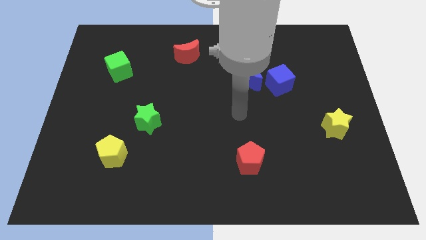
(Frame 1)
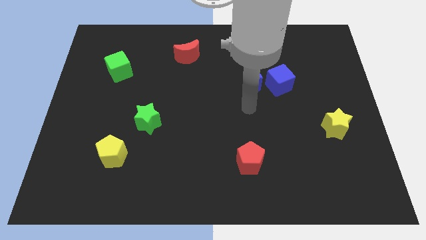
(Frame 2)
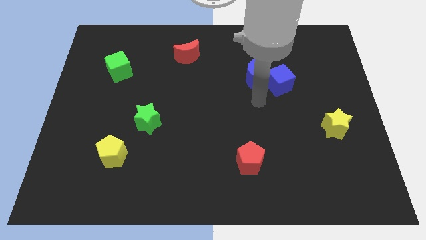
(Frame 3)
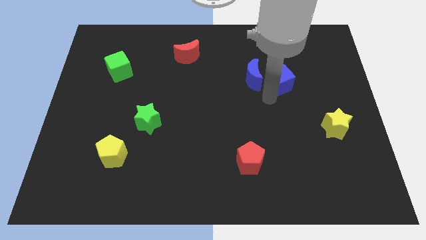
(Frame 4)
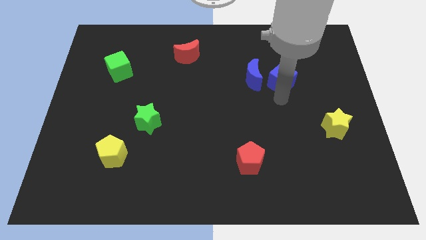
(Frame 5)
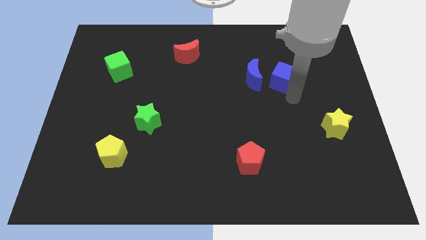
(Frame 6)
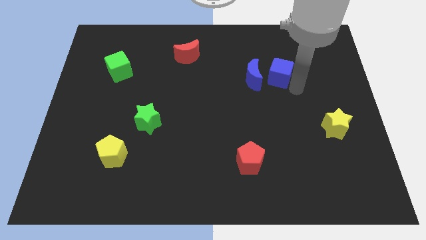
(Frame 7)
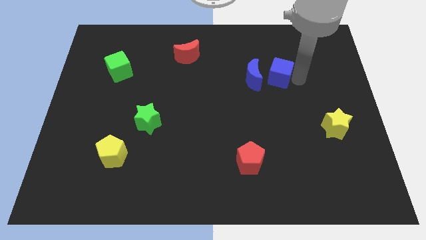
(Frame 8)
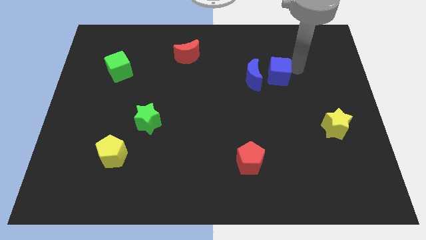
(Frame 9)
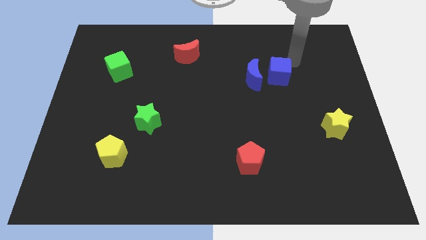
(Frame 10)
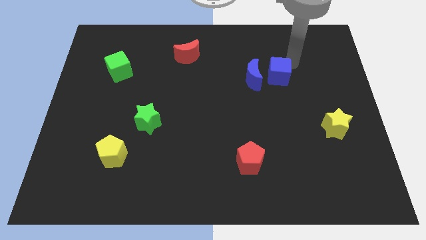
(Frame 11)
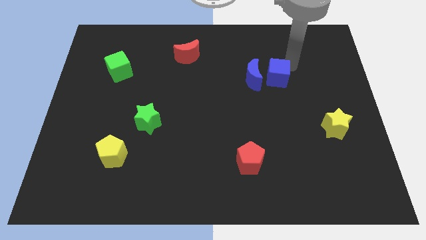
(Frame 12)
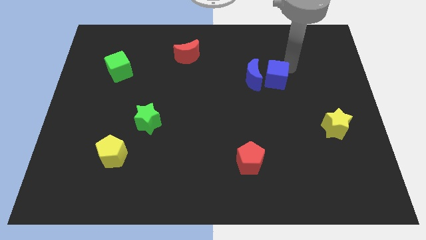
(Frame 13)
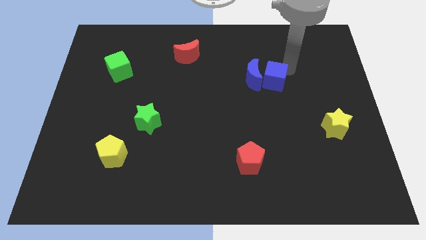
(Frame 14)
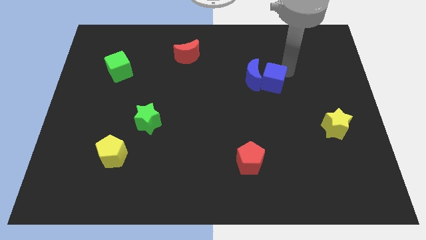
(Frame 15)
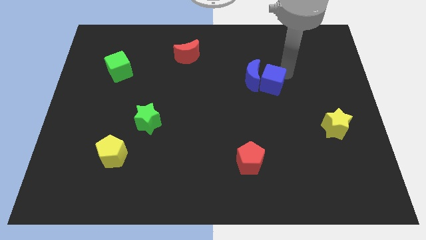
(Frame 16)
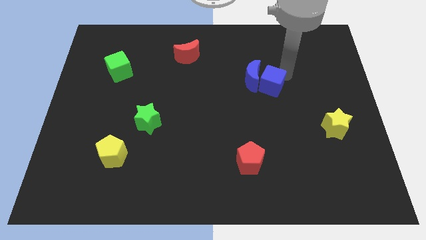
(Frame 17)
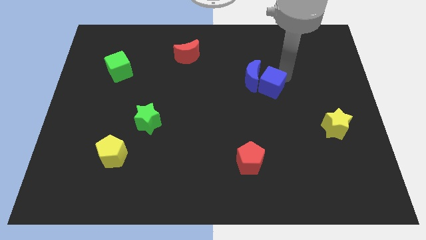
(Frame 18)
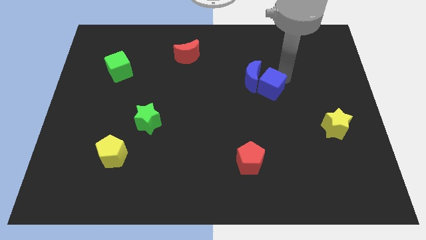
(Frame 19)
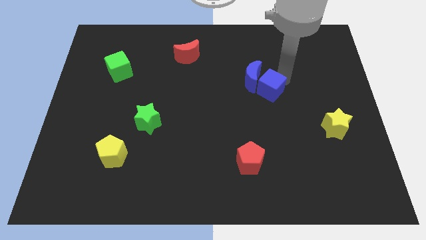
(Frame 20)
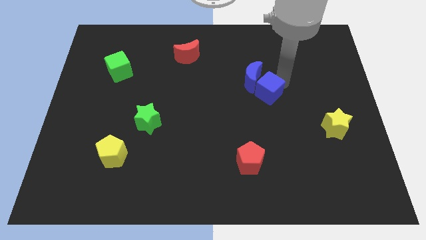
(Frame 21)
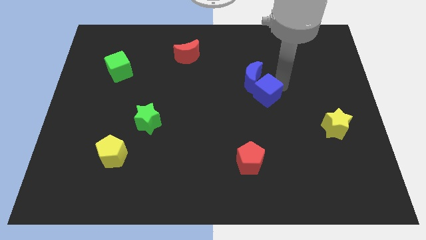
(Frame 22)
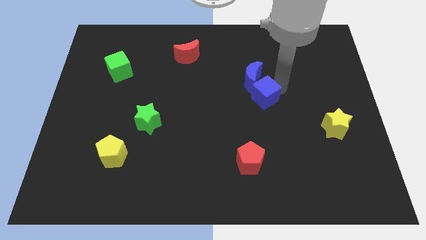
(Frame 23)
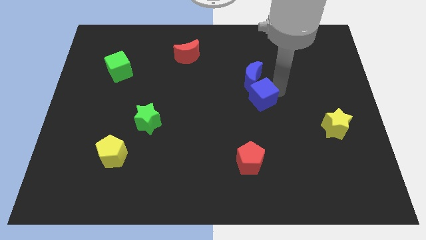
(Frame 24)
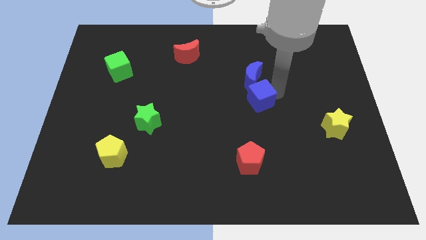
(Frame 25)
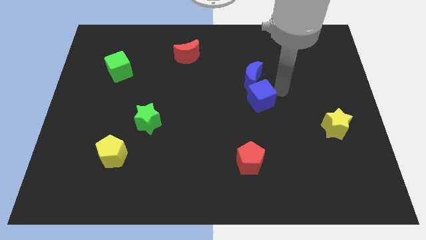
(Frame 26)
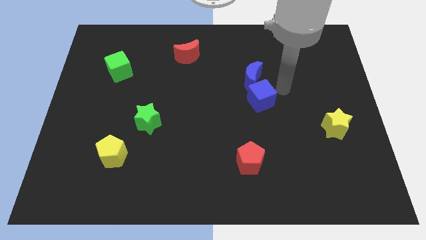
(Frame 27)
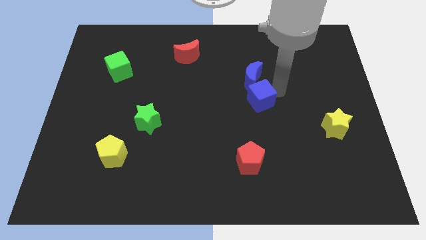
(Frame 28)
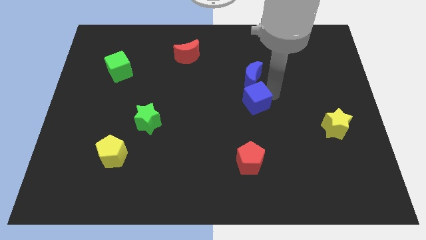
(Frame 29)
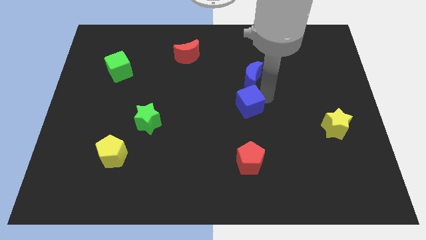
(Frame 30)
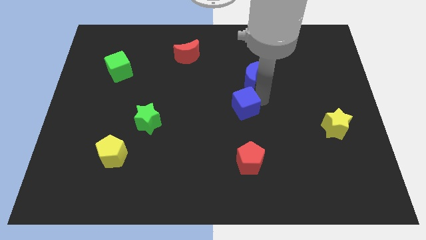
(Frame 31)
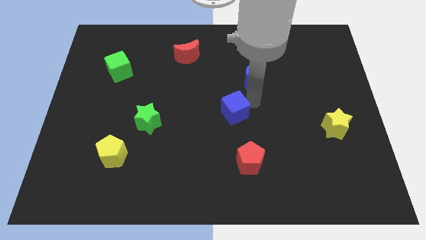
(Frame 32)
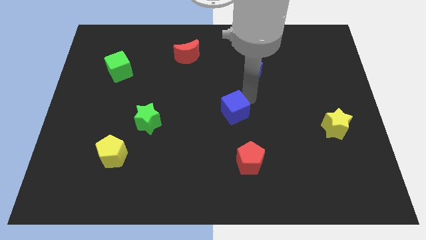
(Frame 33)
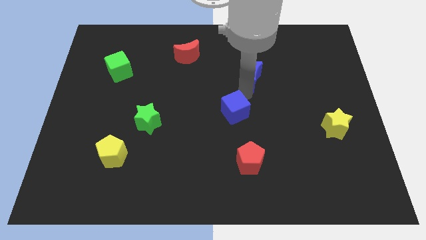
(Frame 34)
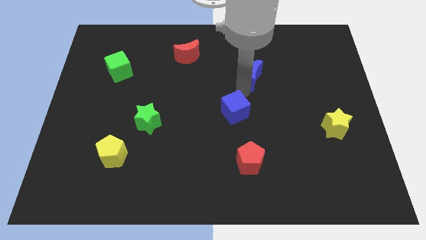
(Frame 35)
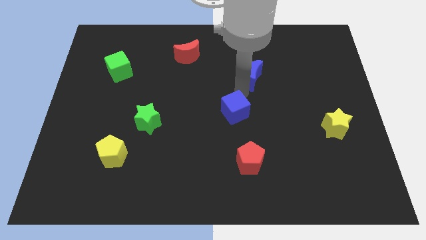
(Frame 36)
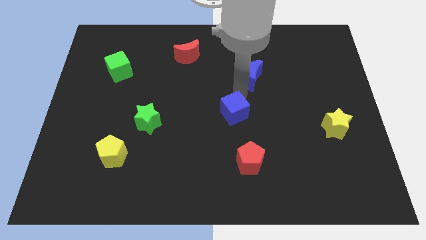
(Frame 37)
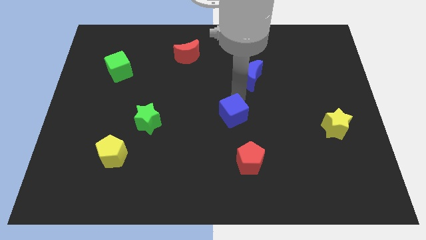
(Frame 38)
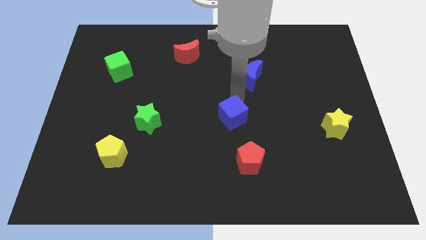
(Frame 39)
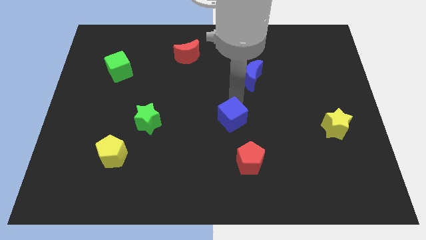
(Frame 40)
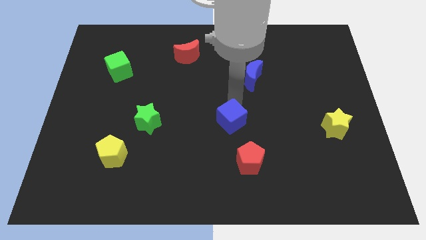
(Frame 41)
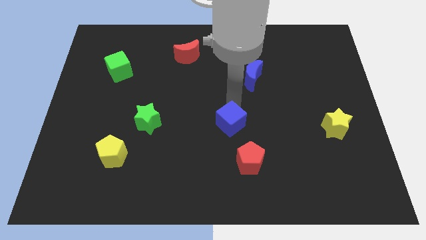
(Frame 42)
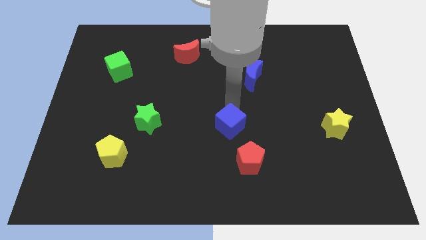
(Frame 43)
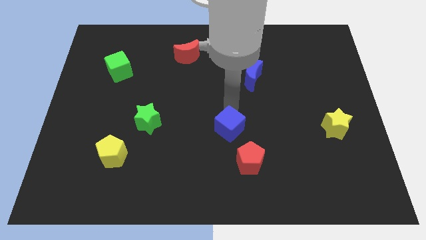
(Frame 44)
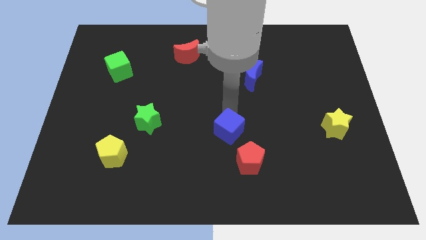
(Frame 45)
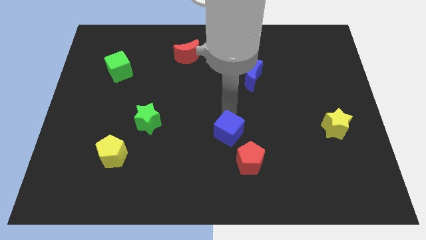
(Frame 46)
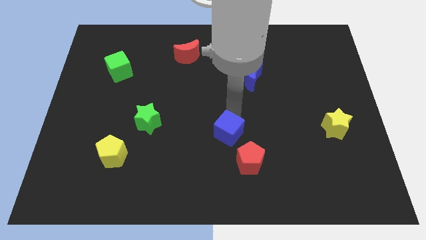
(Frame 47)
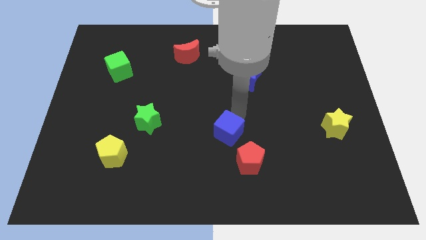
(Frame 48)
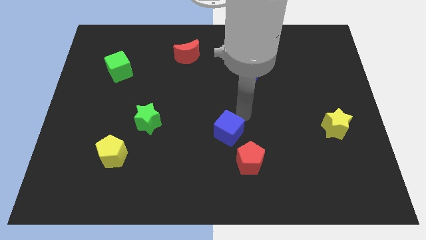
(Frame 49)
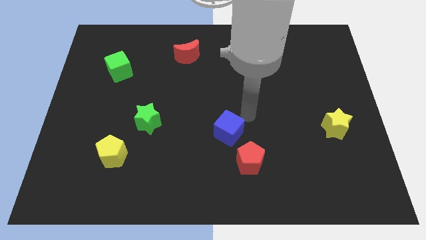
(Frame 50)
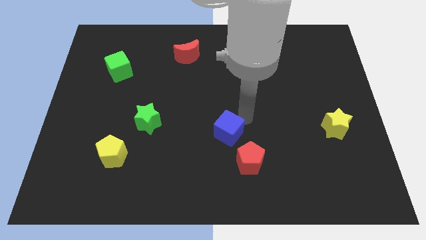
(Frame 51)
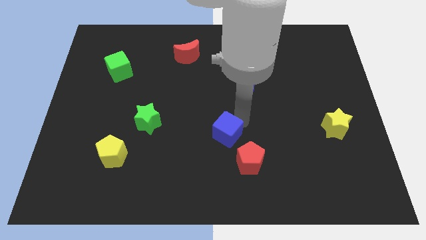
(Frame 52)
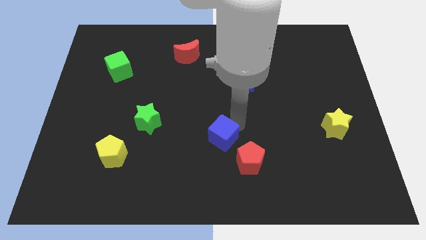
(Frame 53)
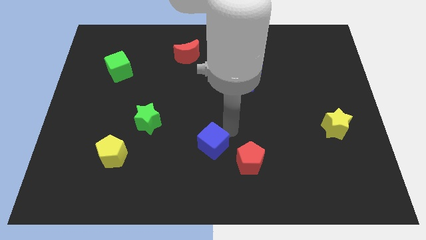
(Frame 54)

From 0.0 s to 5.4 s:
push the blue cube left of the red pentagon

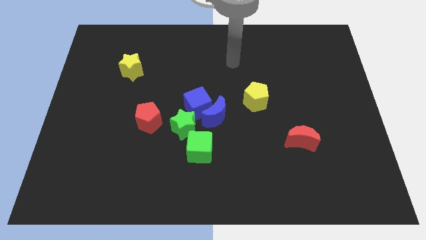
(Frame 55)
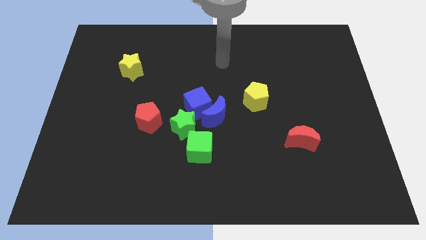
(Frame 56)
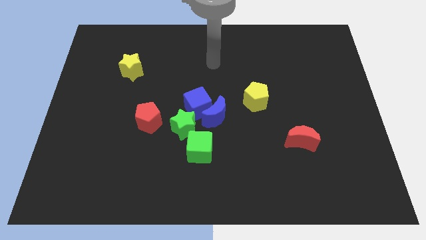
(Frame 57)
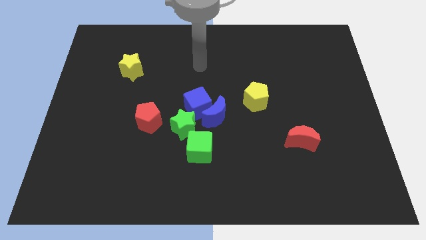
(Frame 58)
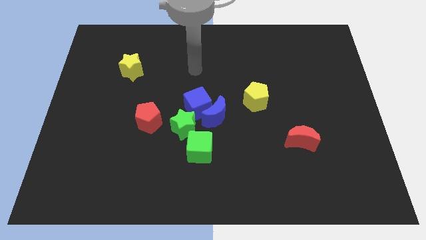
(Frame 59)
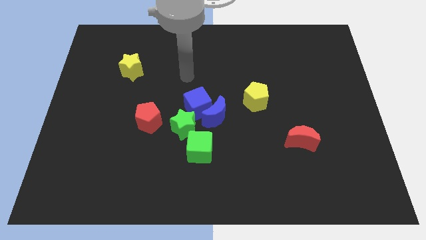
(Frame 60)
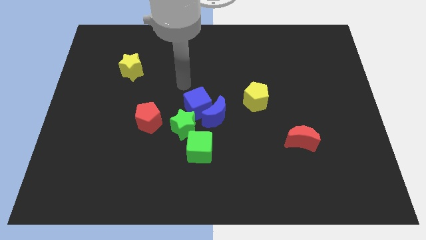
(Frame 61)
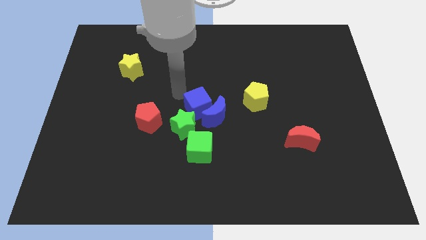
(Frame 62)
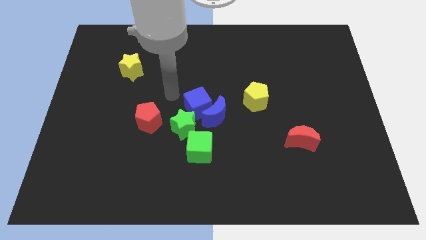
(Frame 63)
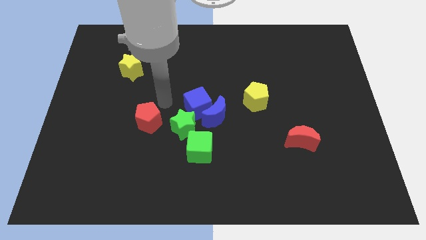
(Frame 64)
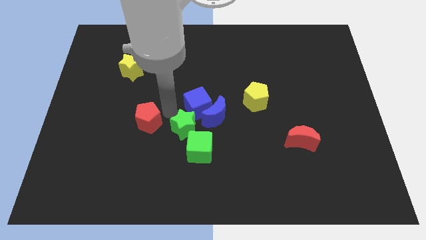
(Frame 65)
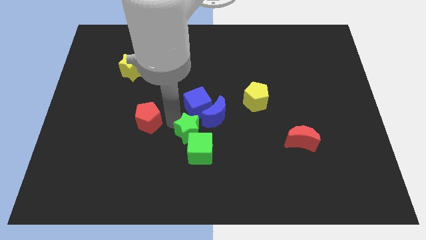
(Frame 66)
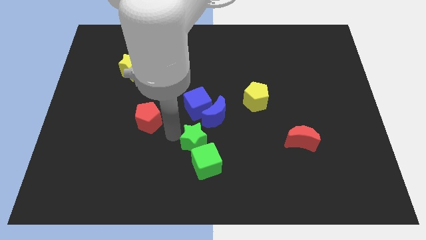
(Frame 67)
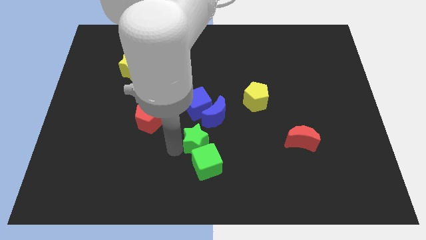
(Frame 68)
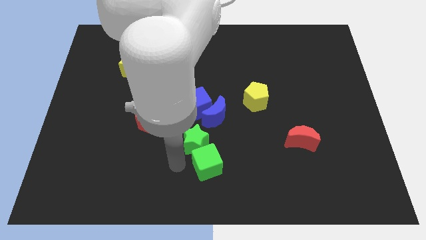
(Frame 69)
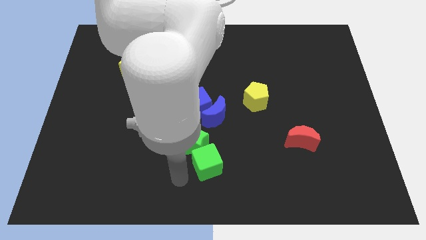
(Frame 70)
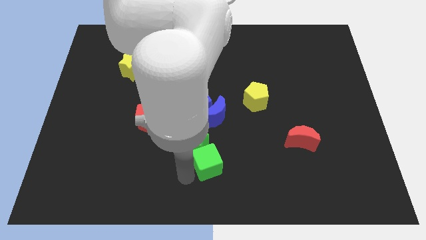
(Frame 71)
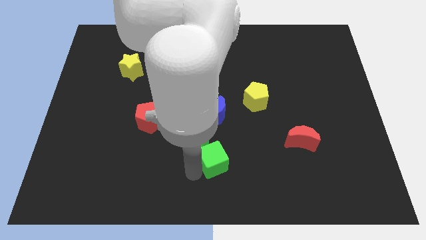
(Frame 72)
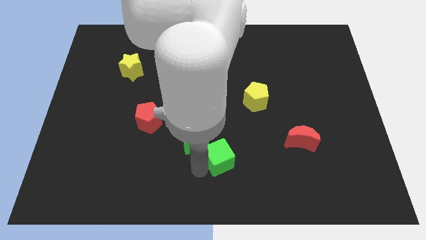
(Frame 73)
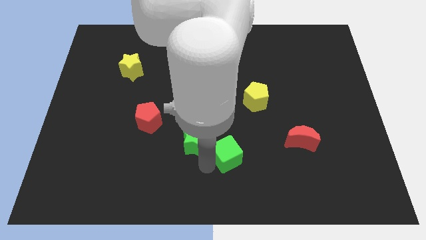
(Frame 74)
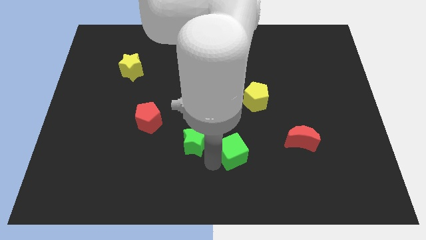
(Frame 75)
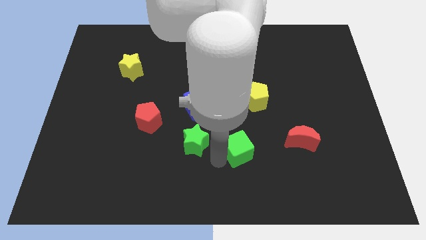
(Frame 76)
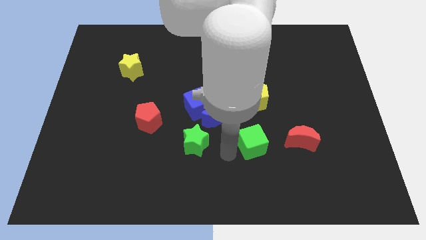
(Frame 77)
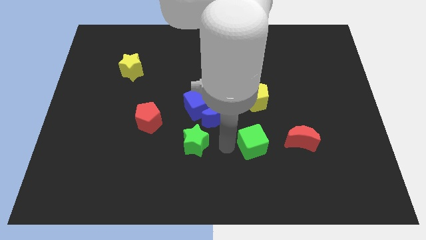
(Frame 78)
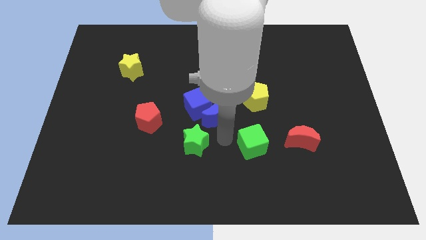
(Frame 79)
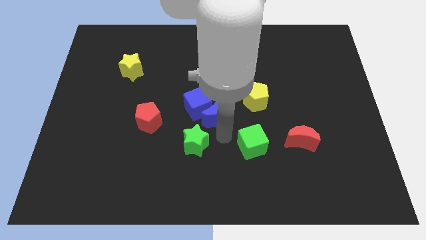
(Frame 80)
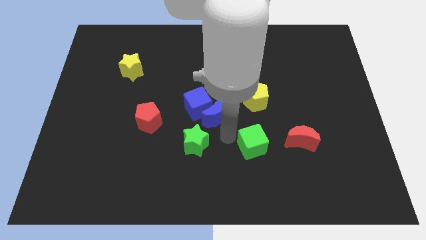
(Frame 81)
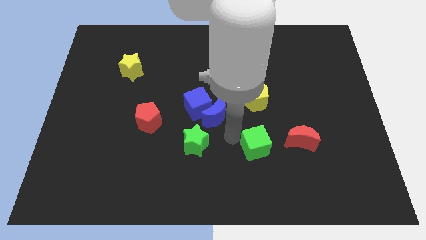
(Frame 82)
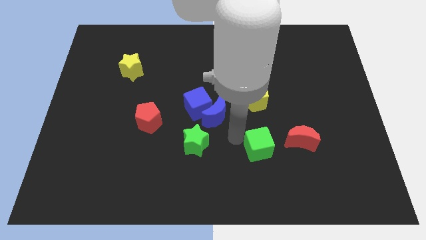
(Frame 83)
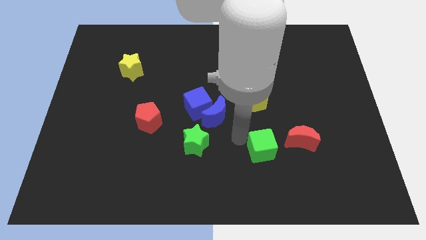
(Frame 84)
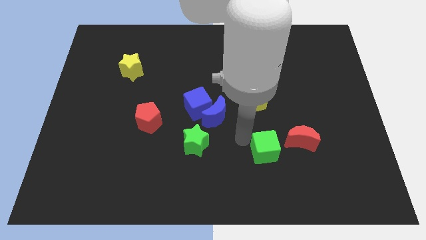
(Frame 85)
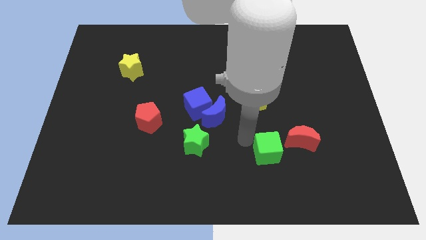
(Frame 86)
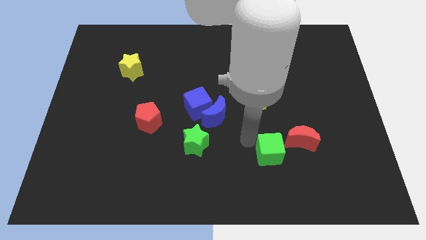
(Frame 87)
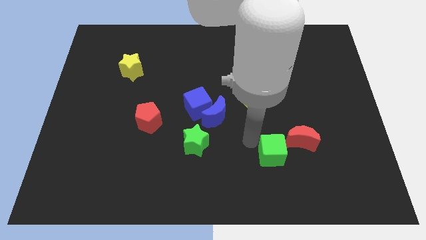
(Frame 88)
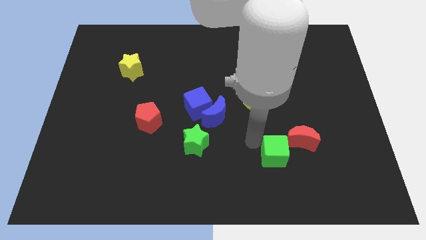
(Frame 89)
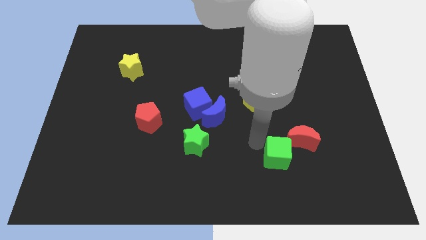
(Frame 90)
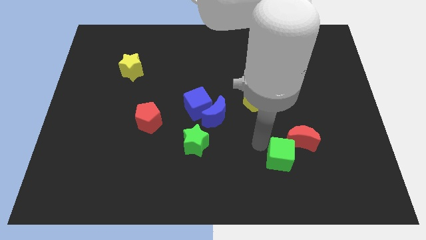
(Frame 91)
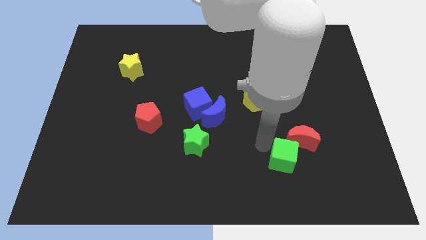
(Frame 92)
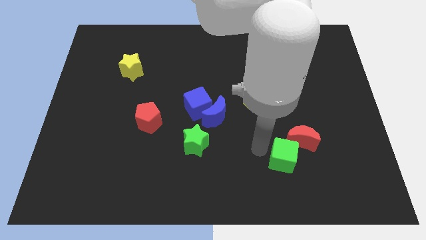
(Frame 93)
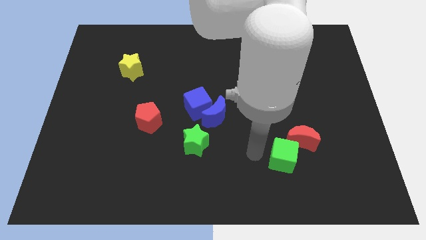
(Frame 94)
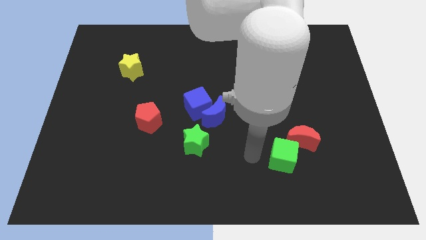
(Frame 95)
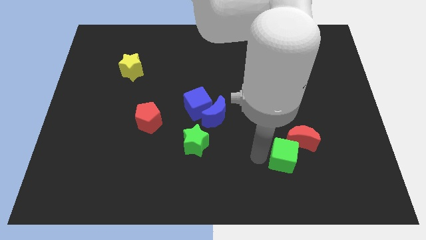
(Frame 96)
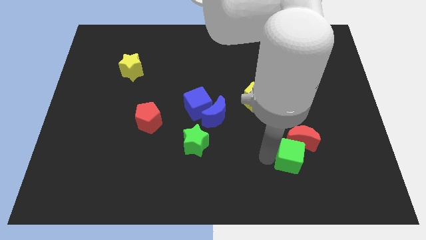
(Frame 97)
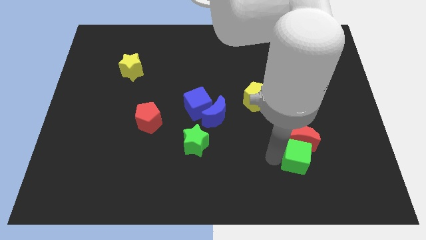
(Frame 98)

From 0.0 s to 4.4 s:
move the green cube diagonally down and to the right of the red moon
